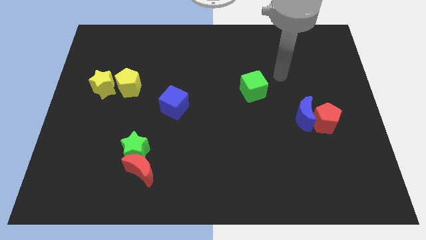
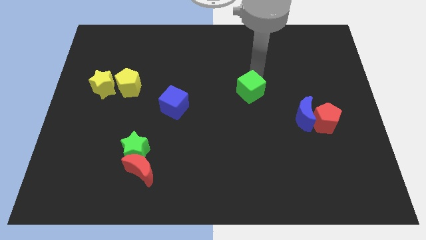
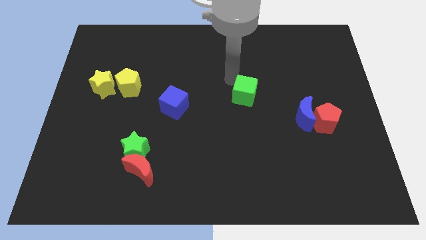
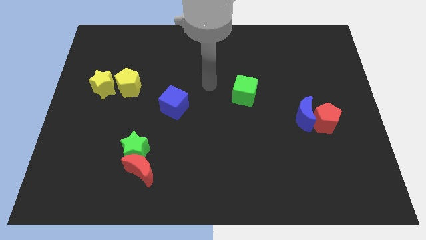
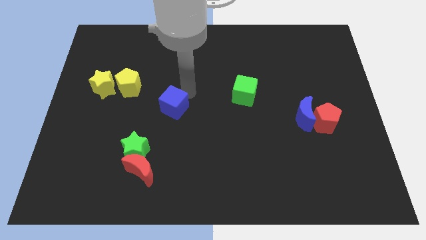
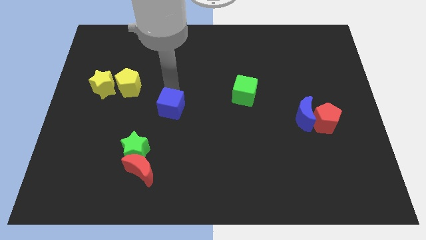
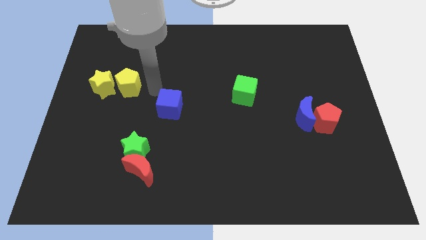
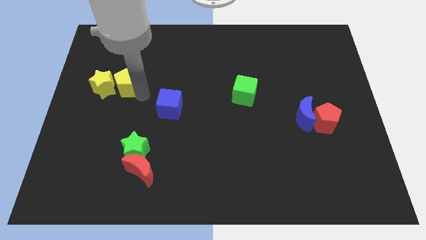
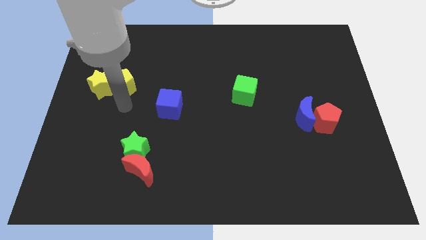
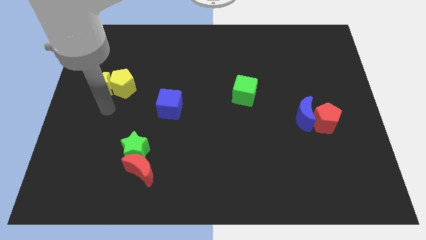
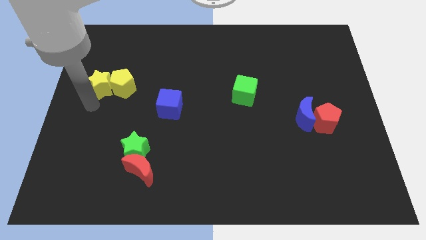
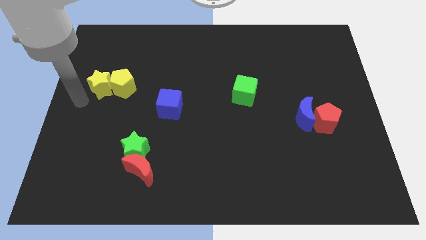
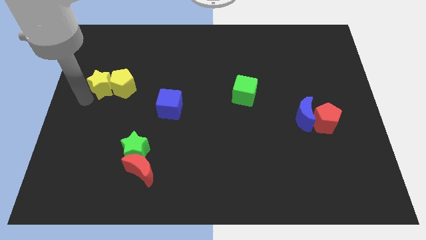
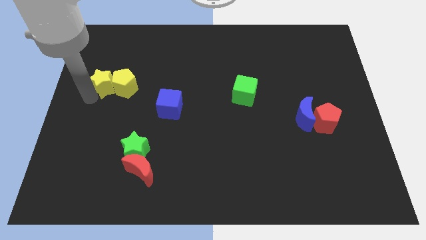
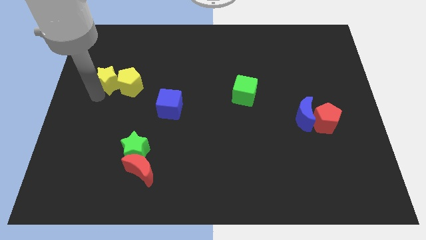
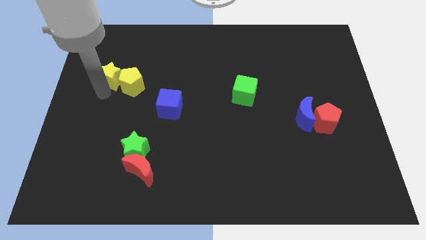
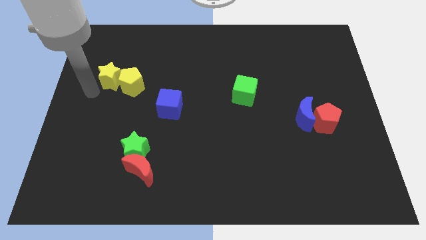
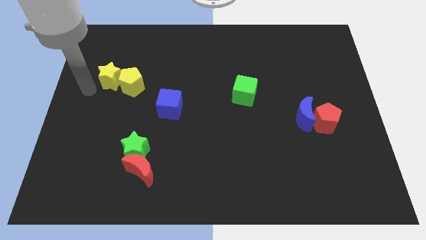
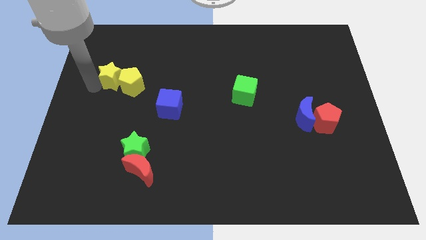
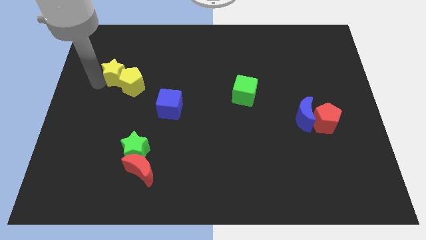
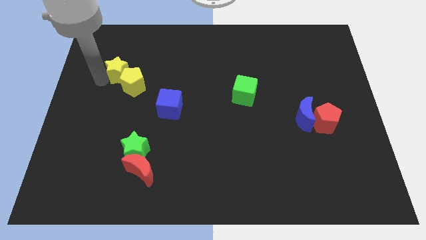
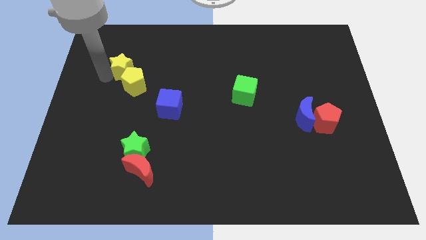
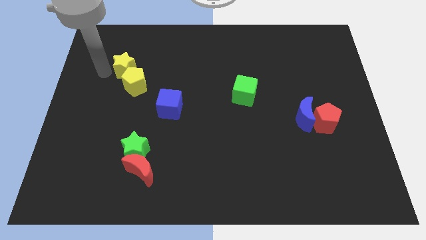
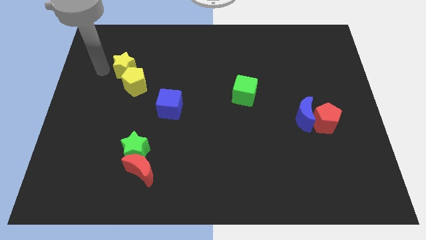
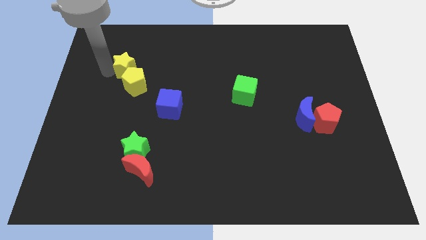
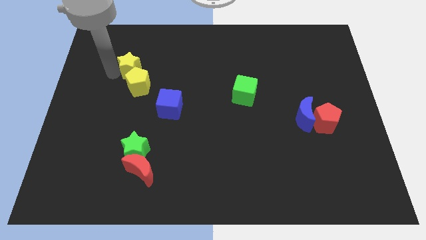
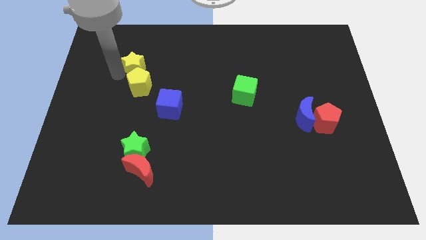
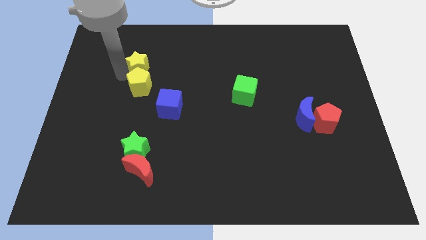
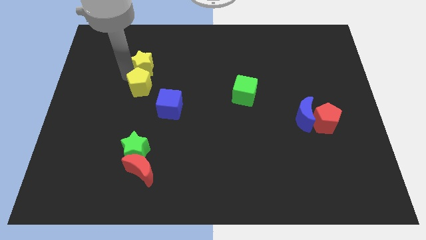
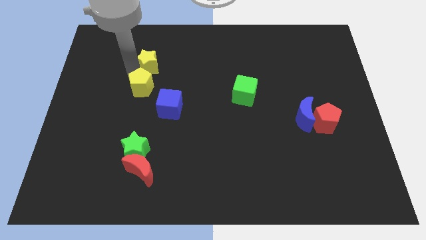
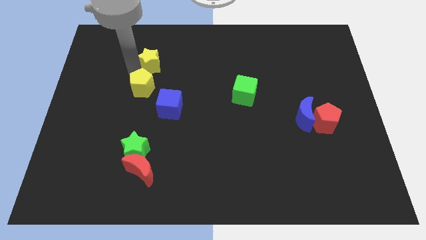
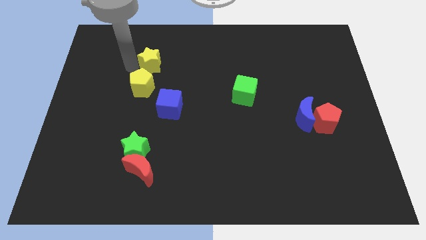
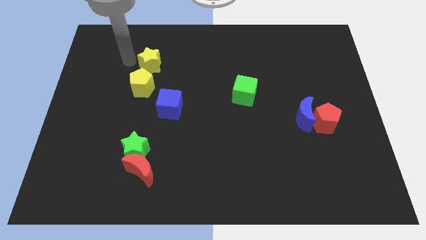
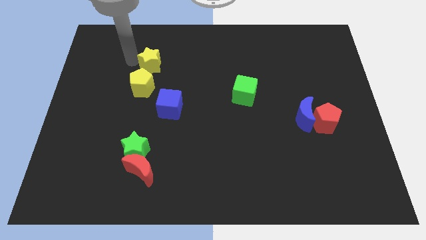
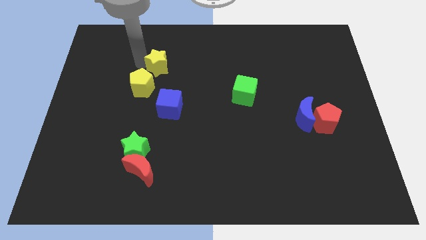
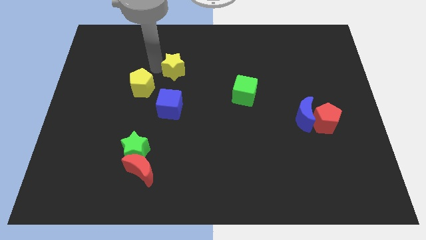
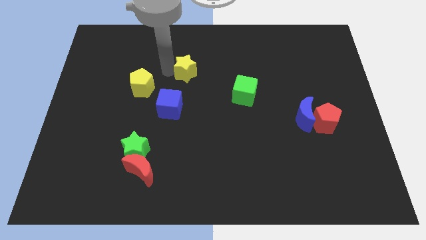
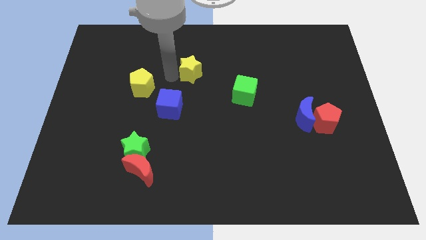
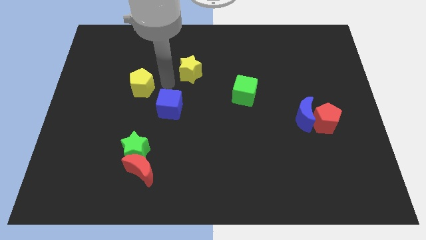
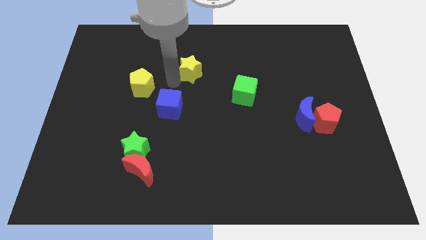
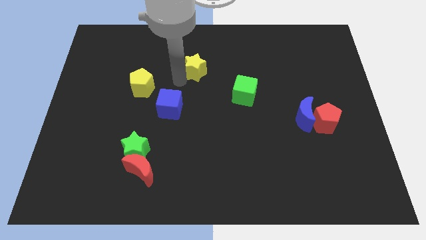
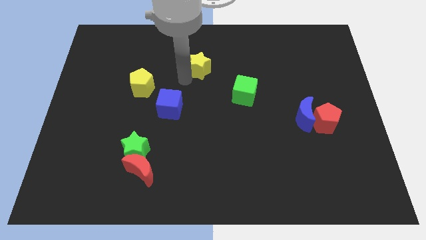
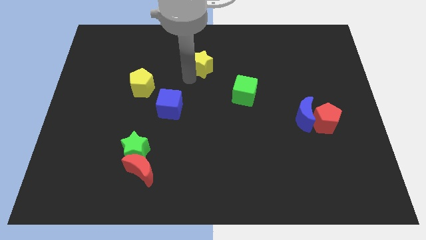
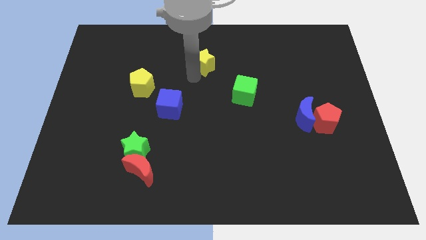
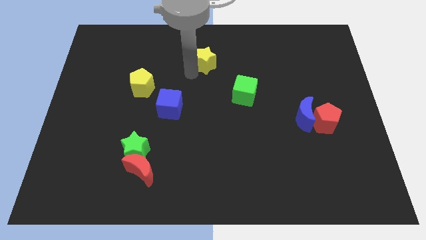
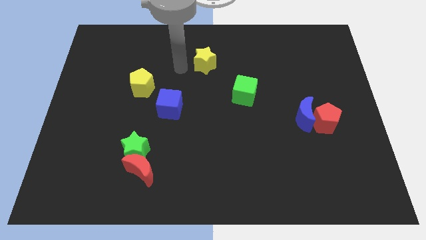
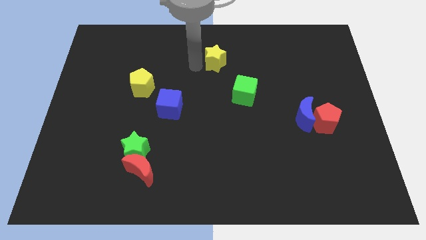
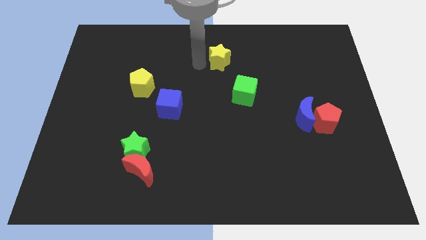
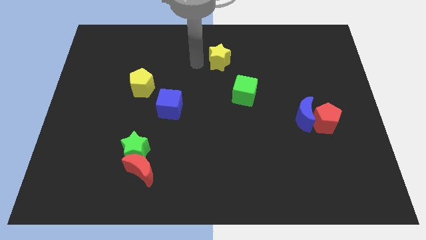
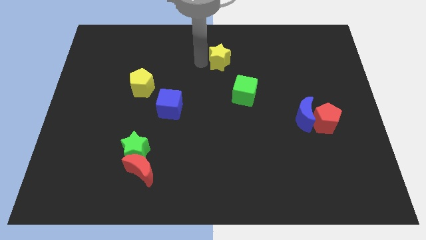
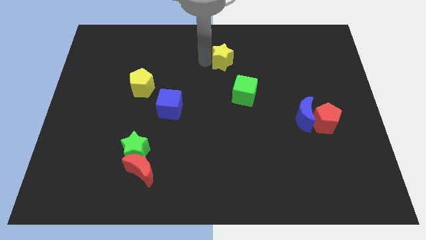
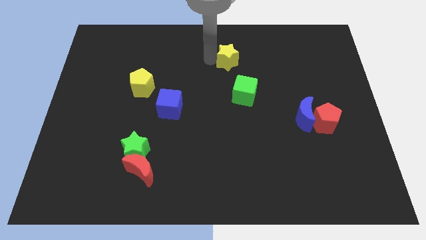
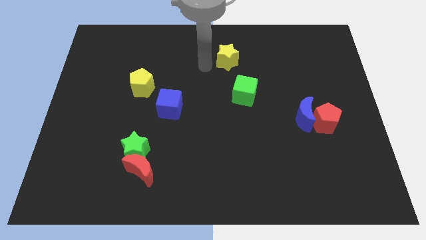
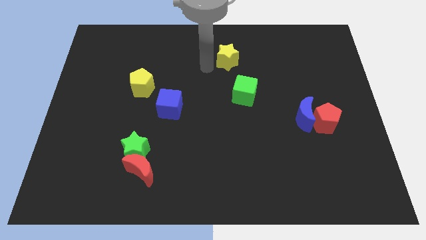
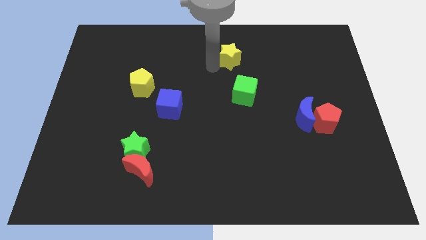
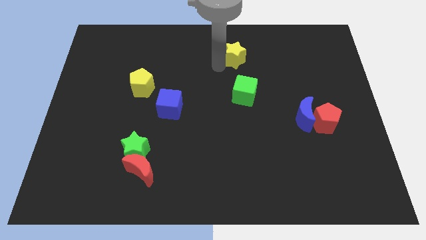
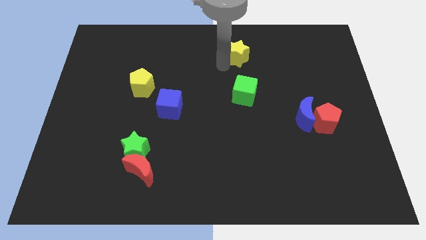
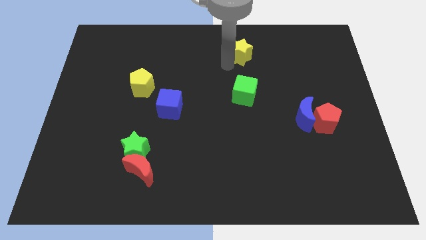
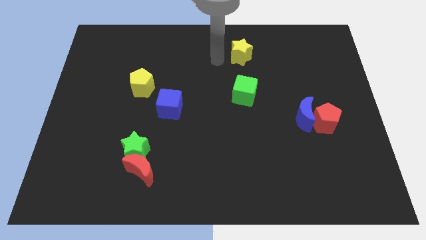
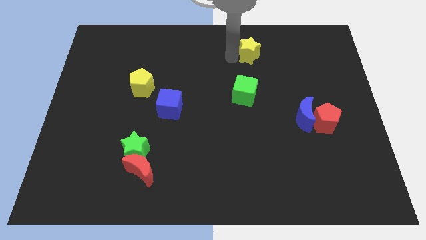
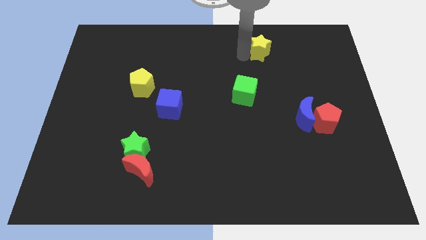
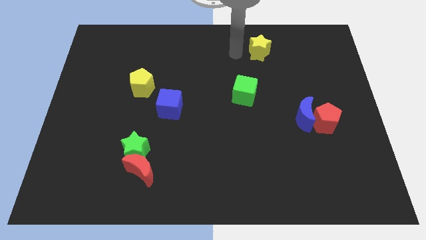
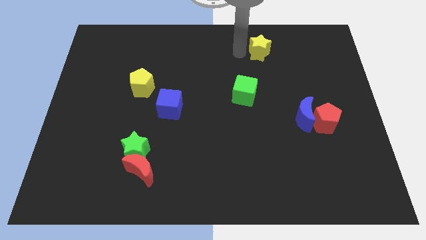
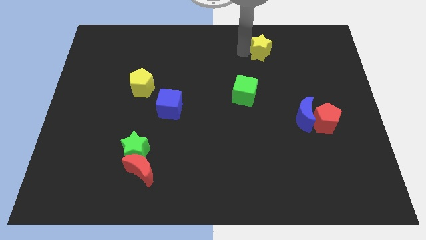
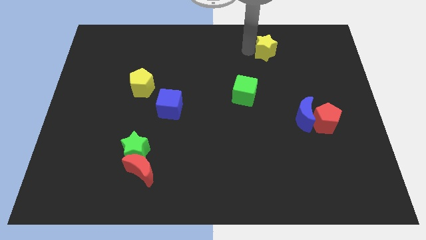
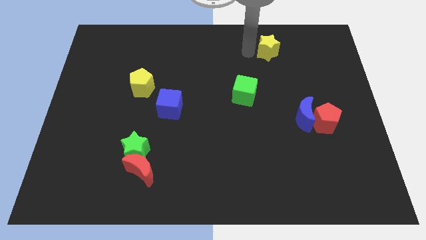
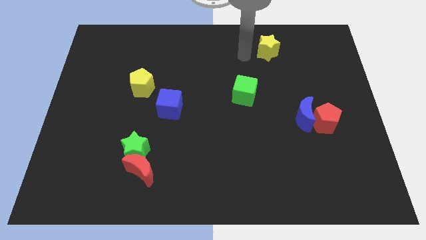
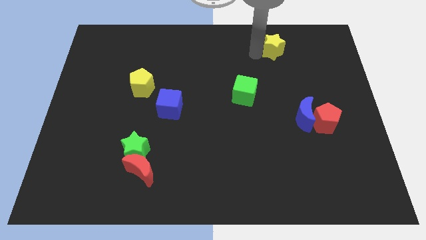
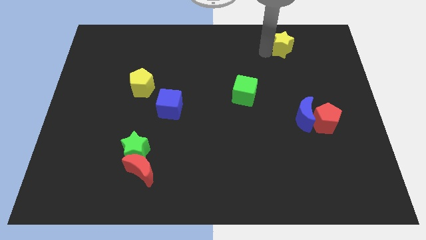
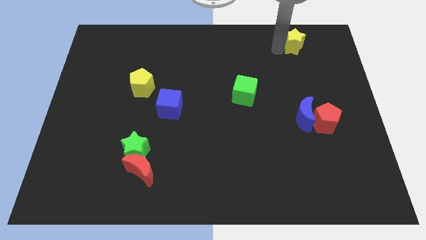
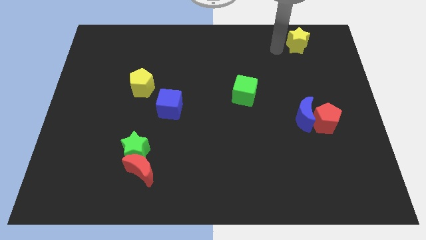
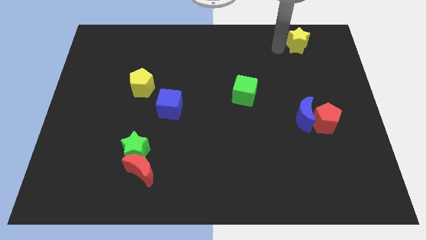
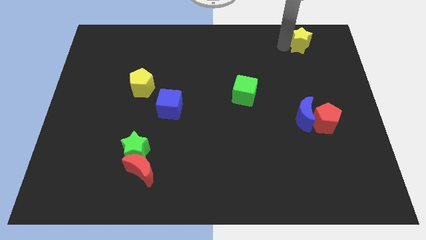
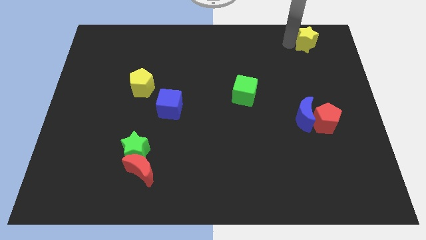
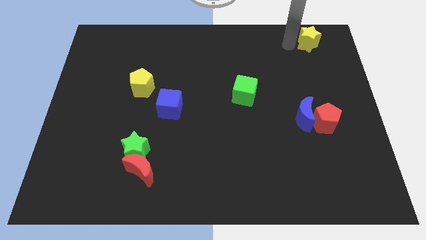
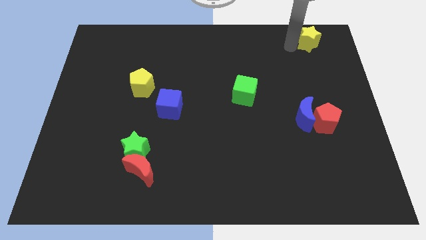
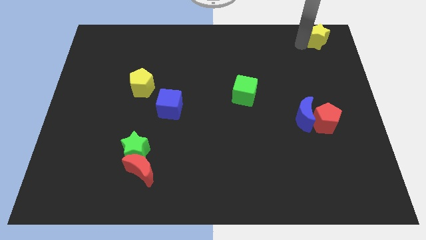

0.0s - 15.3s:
put the yellow star to the top right corner

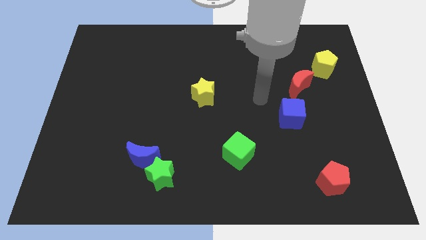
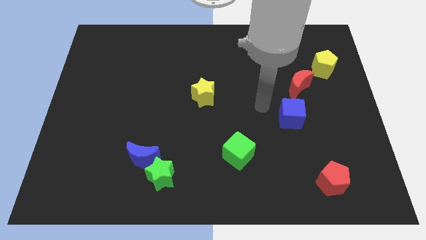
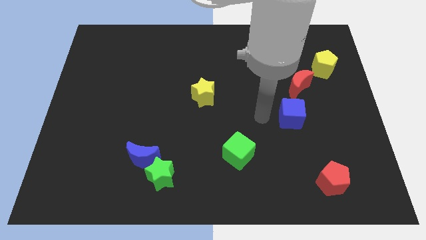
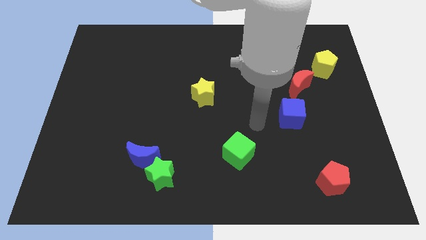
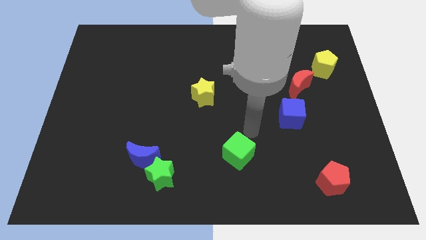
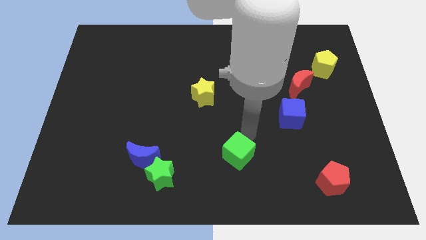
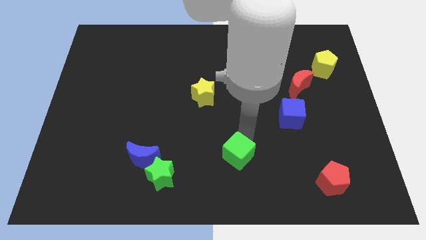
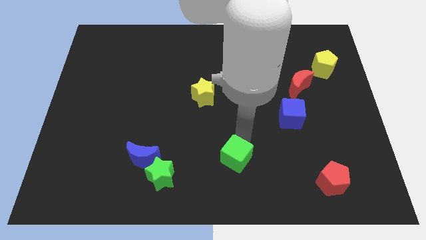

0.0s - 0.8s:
put the green cube to the bottom side
